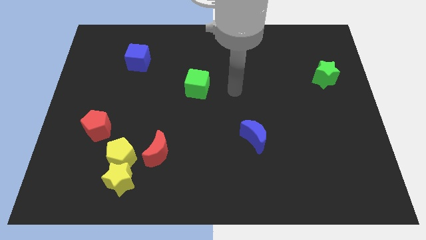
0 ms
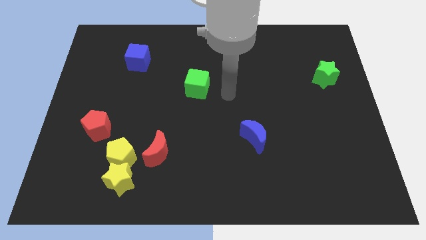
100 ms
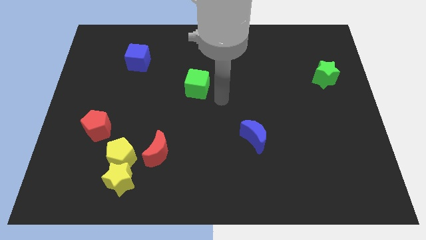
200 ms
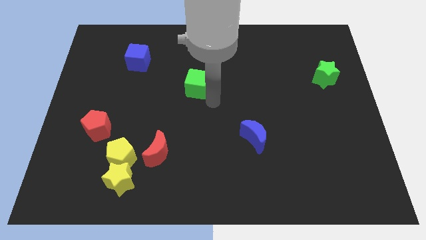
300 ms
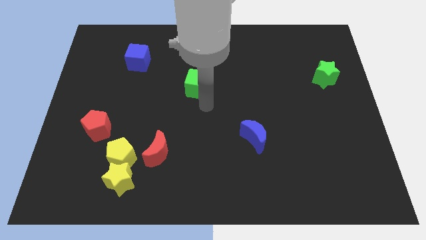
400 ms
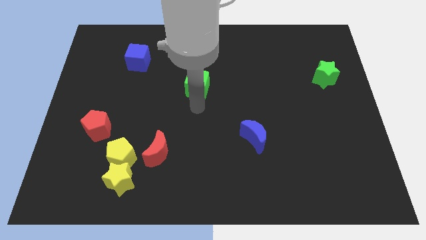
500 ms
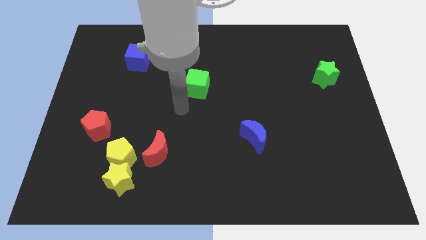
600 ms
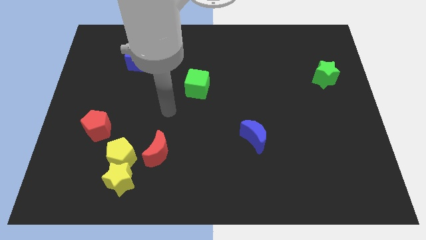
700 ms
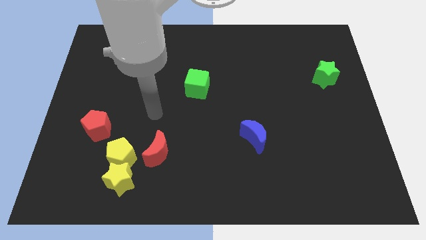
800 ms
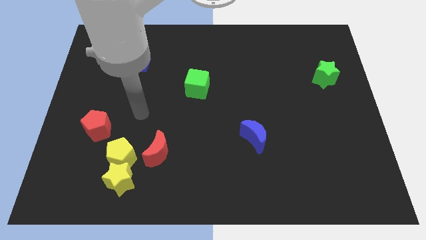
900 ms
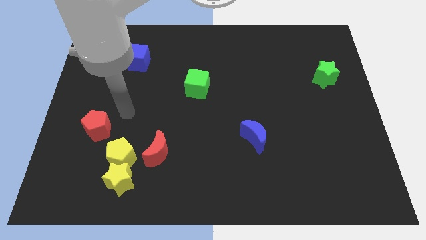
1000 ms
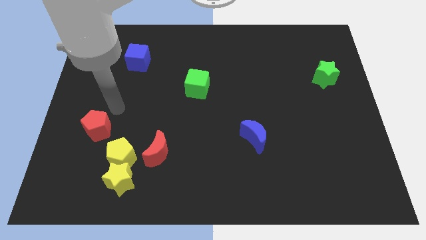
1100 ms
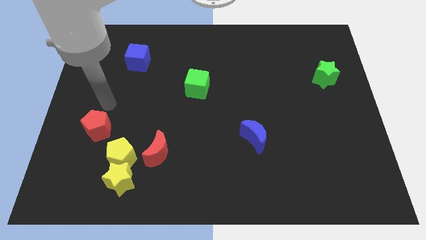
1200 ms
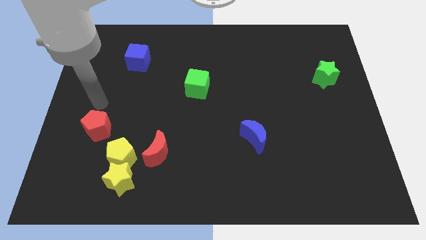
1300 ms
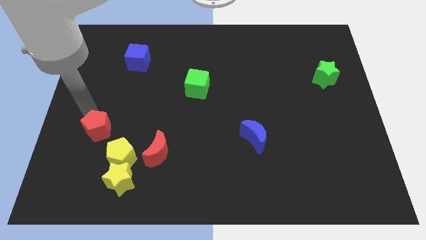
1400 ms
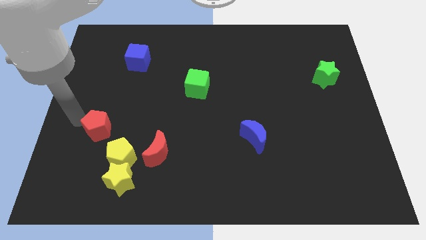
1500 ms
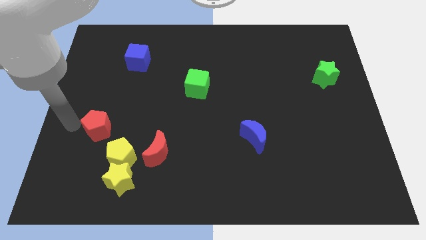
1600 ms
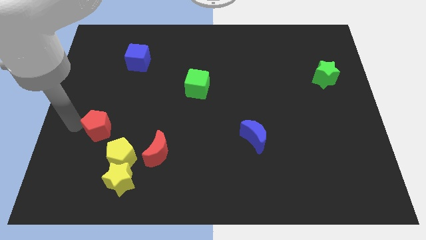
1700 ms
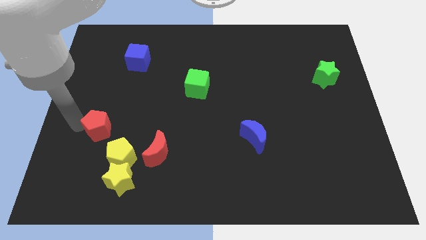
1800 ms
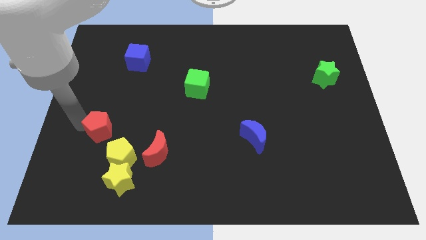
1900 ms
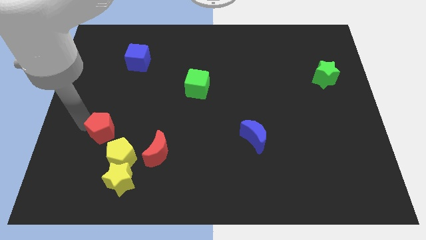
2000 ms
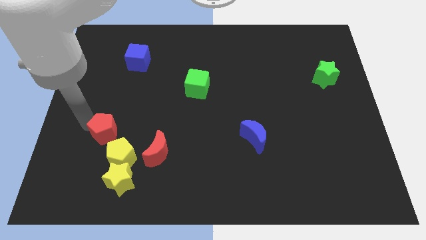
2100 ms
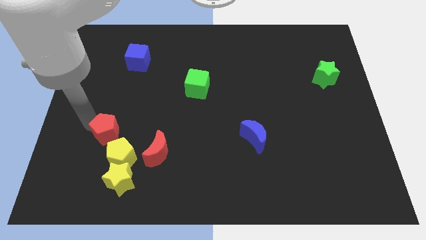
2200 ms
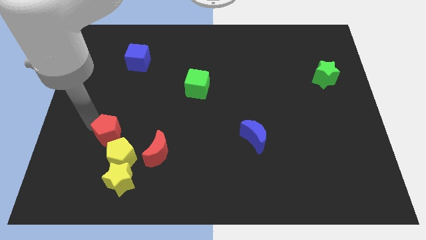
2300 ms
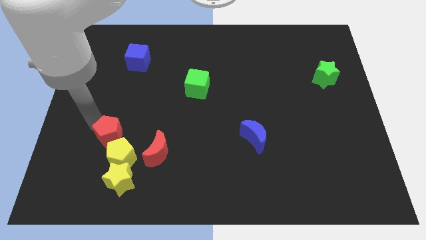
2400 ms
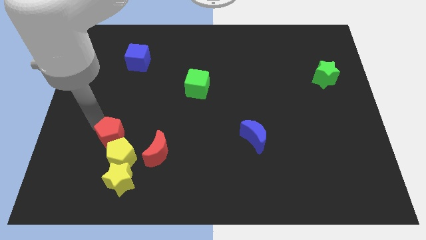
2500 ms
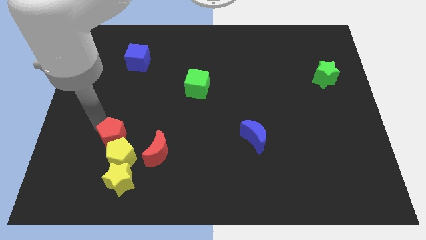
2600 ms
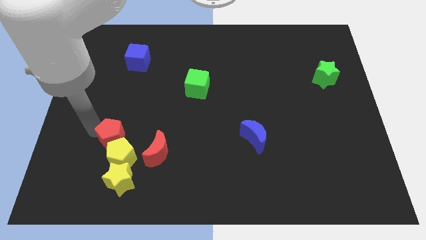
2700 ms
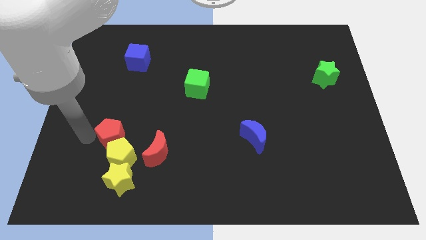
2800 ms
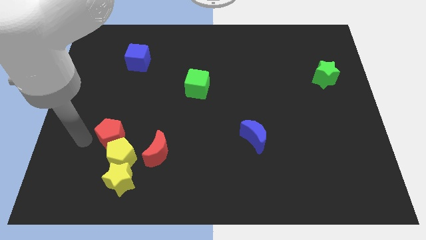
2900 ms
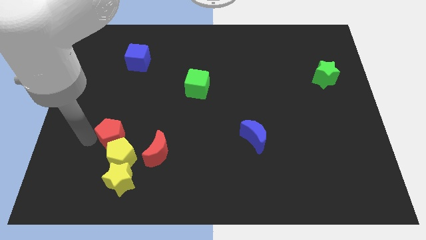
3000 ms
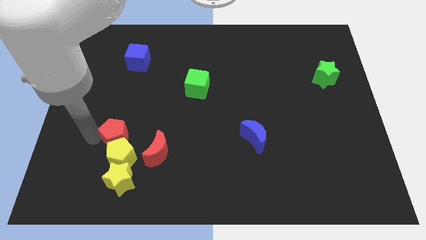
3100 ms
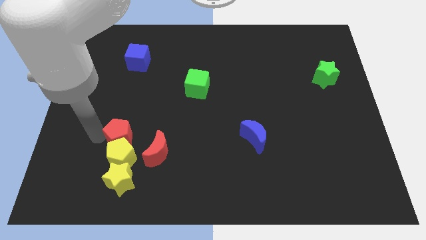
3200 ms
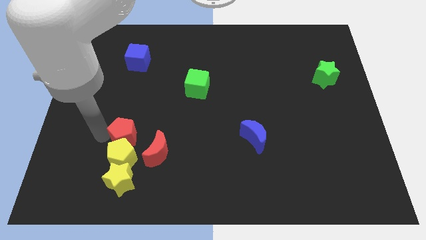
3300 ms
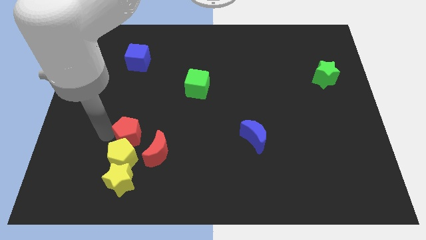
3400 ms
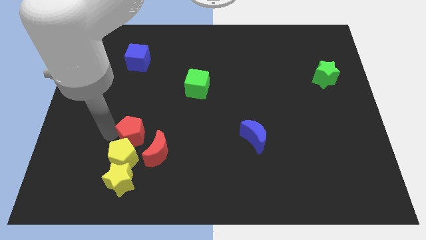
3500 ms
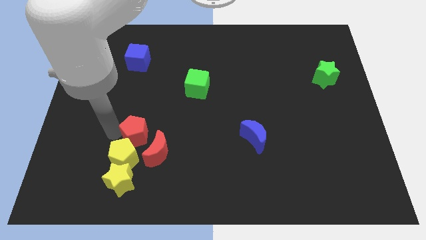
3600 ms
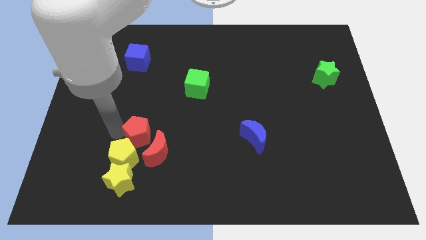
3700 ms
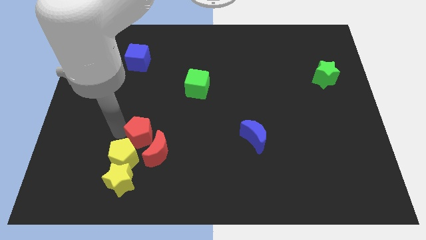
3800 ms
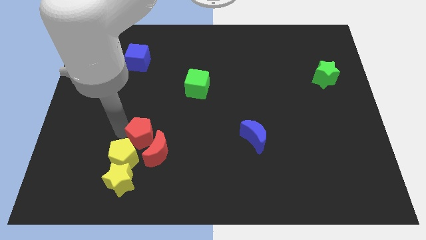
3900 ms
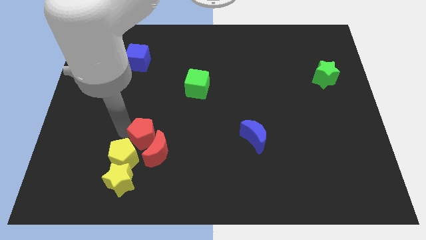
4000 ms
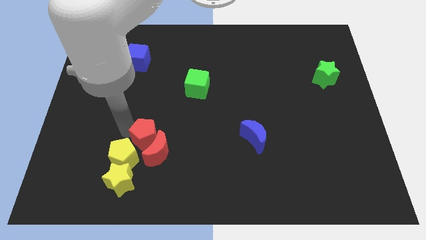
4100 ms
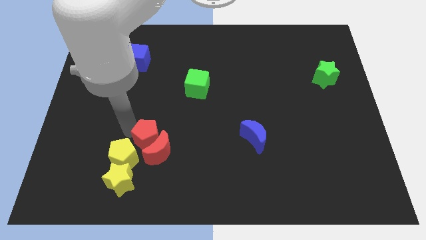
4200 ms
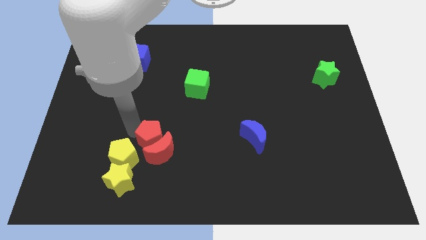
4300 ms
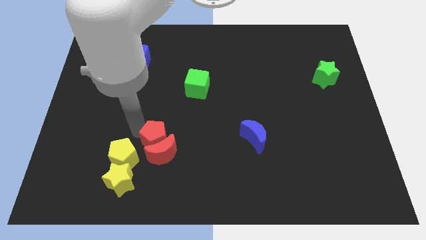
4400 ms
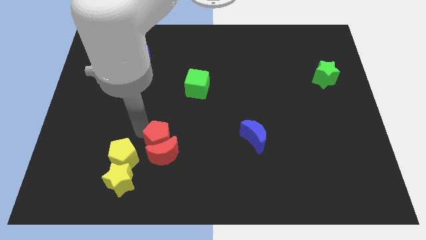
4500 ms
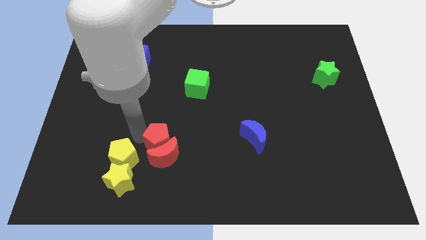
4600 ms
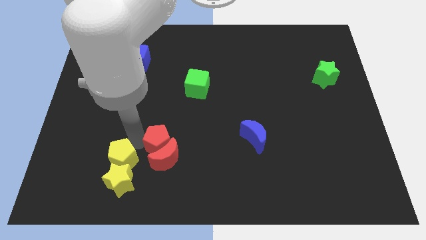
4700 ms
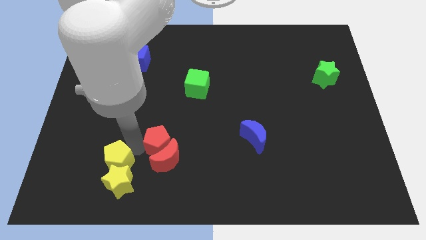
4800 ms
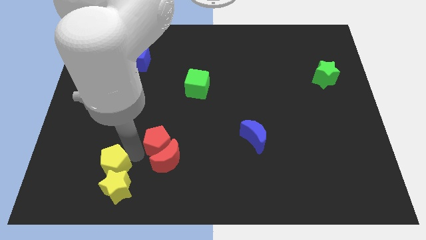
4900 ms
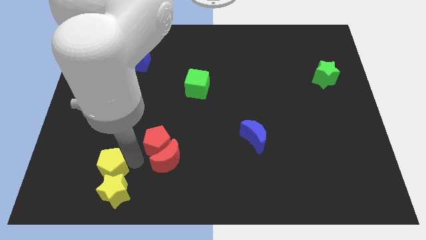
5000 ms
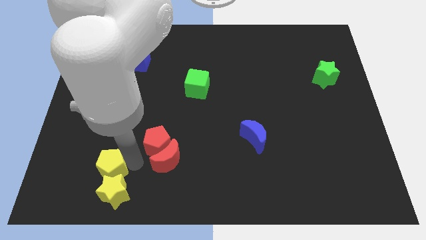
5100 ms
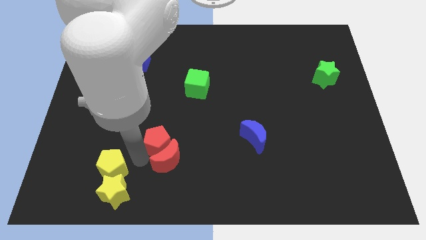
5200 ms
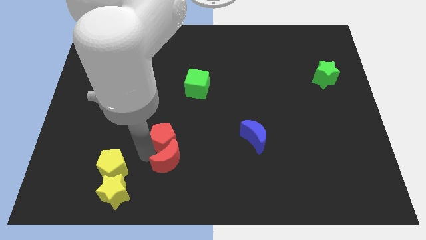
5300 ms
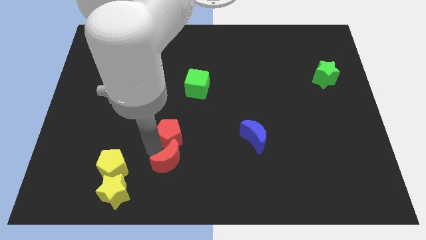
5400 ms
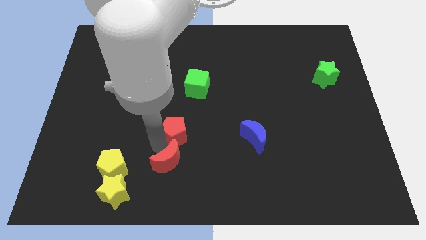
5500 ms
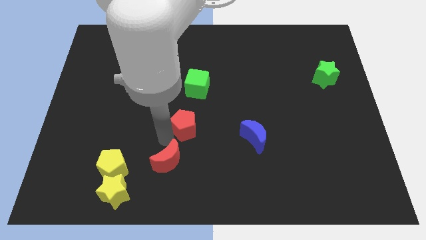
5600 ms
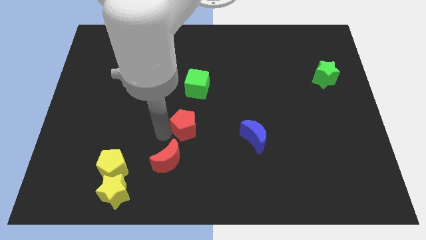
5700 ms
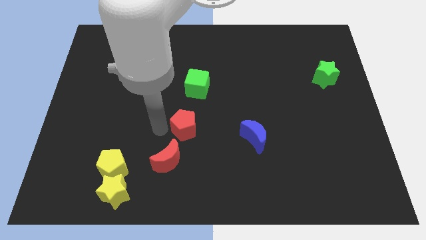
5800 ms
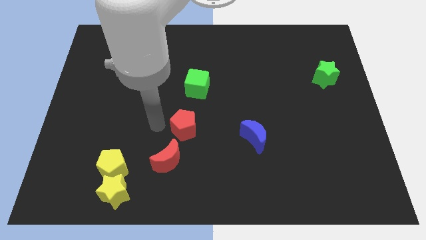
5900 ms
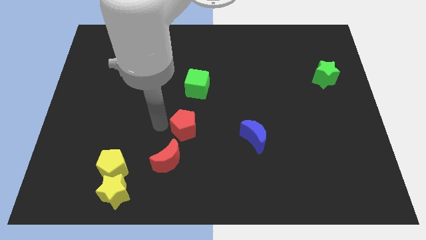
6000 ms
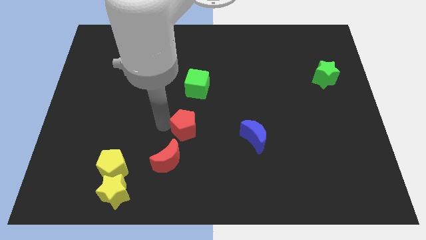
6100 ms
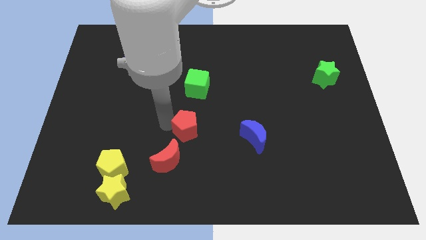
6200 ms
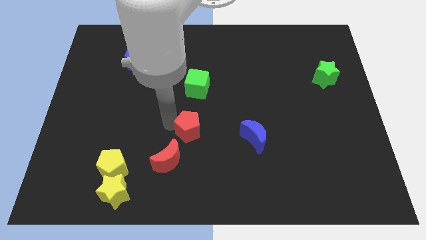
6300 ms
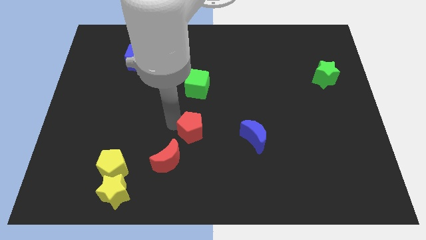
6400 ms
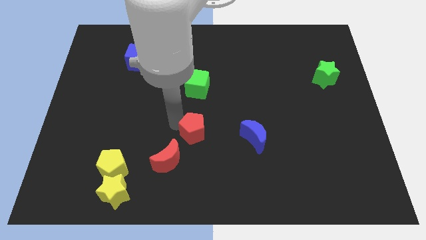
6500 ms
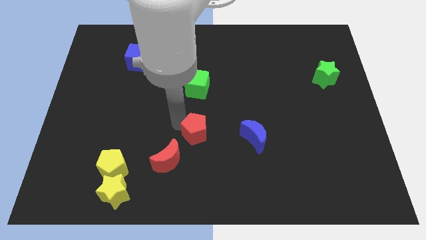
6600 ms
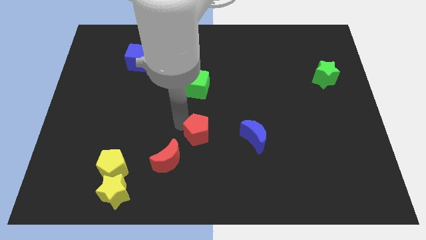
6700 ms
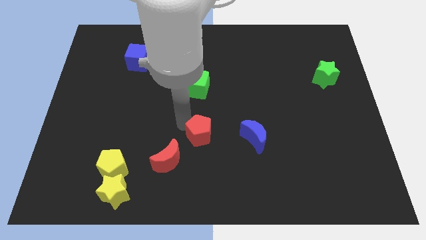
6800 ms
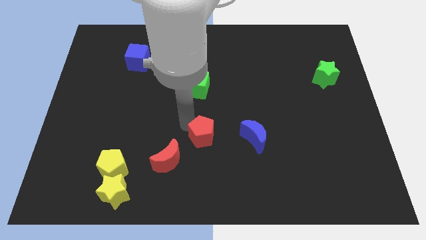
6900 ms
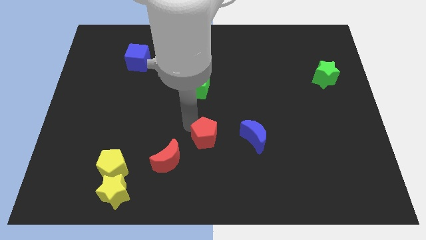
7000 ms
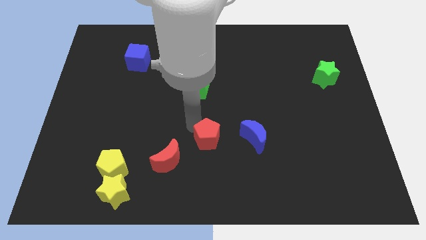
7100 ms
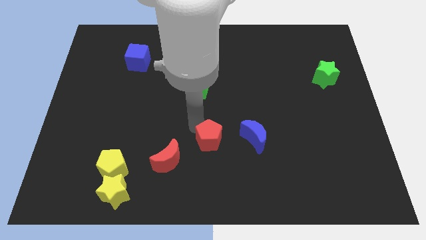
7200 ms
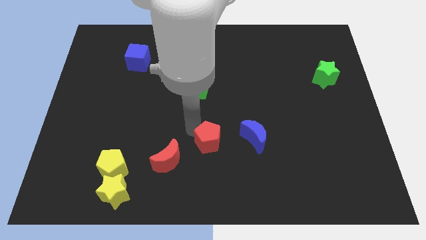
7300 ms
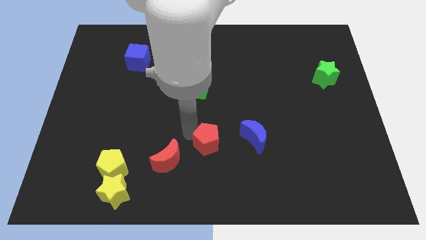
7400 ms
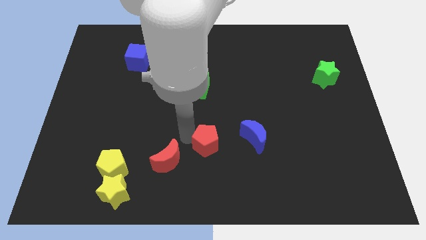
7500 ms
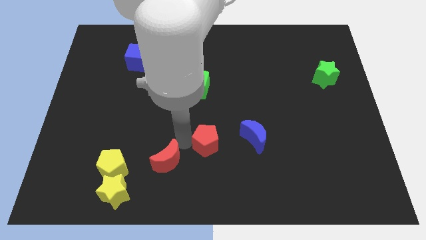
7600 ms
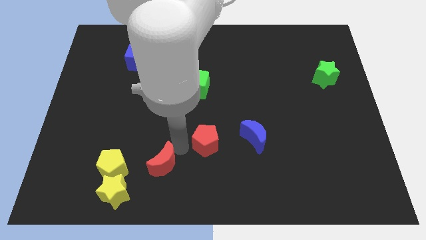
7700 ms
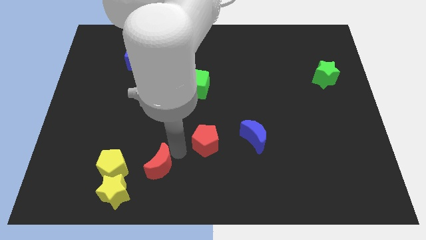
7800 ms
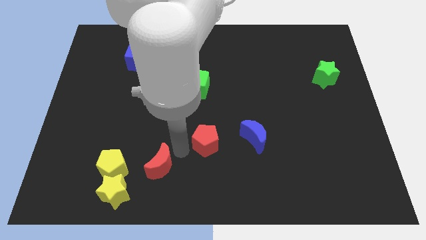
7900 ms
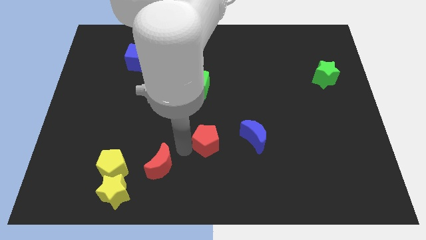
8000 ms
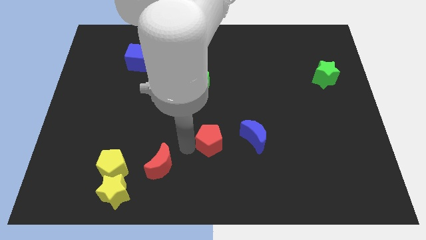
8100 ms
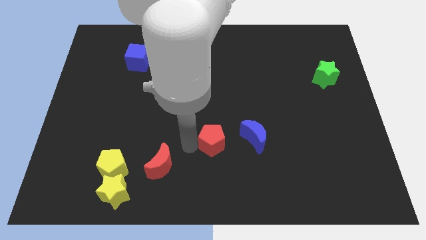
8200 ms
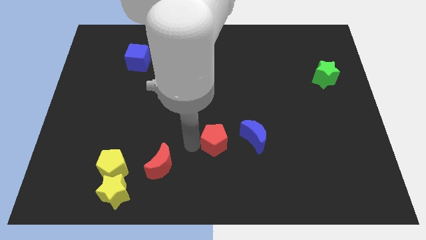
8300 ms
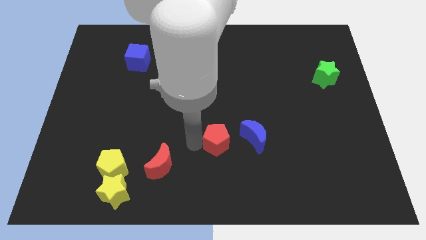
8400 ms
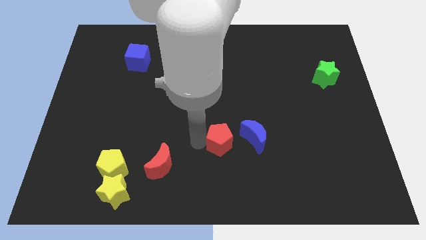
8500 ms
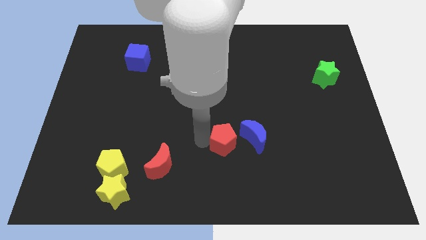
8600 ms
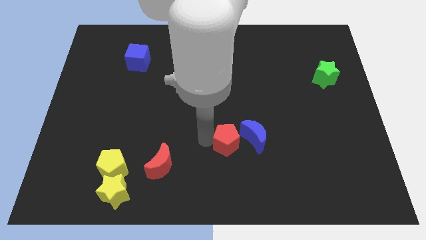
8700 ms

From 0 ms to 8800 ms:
slide the red pentagon close to the blue moon
